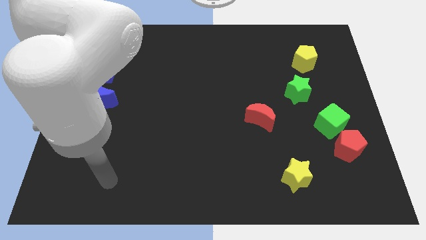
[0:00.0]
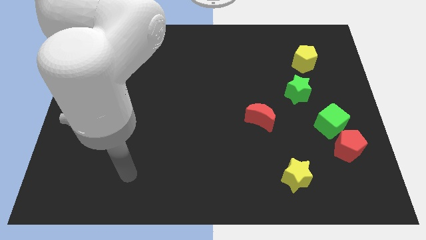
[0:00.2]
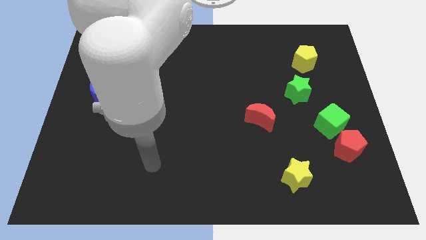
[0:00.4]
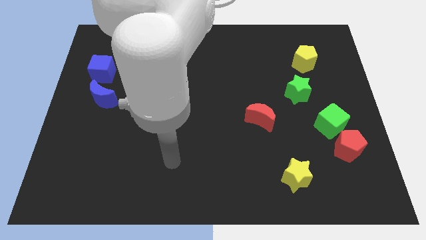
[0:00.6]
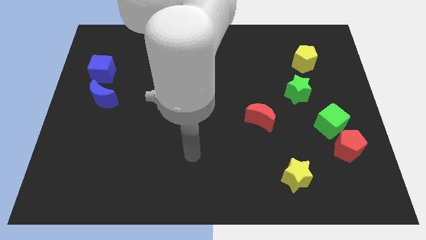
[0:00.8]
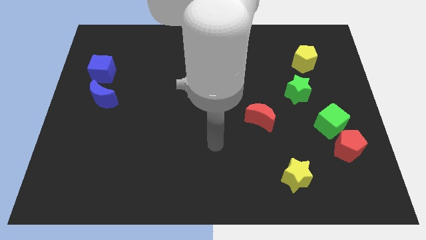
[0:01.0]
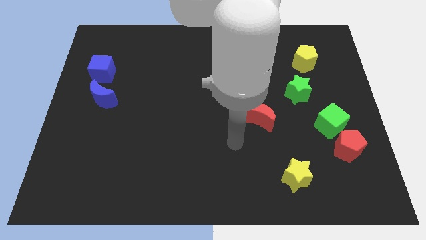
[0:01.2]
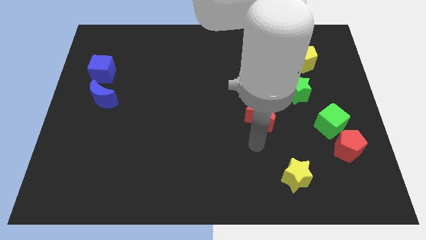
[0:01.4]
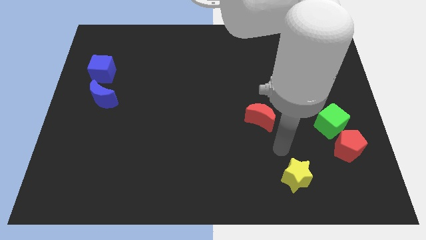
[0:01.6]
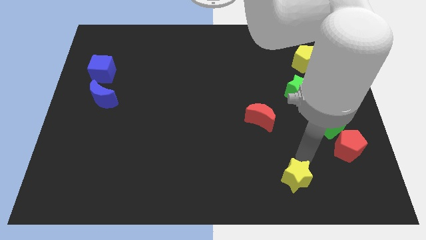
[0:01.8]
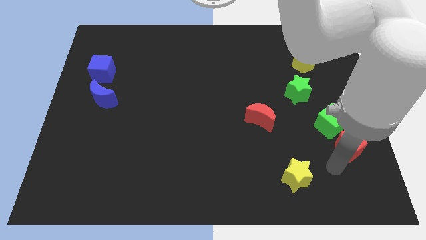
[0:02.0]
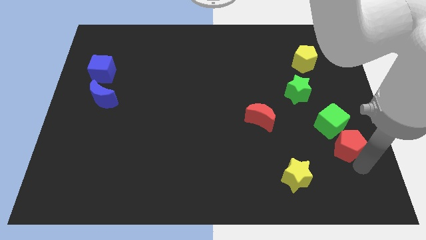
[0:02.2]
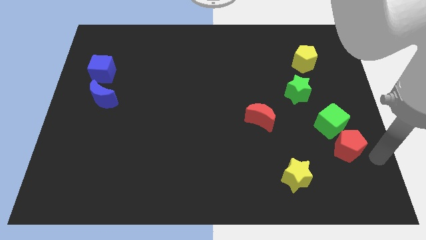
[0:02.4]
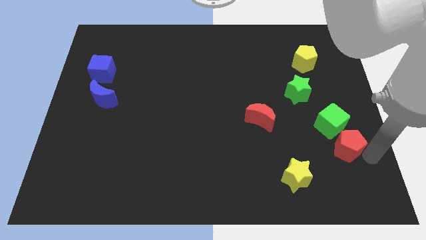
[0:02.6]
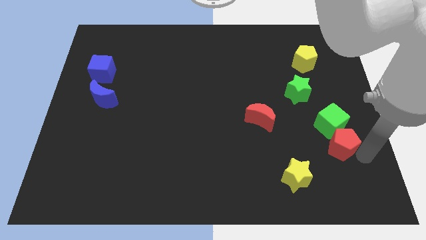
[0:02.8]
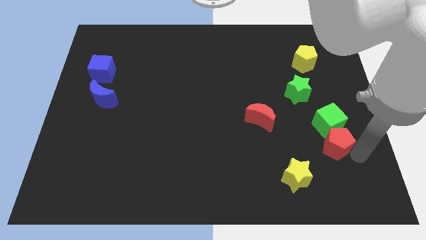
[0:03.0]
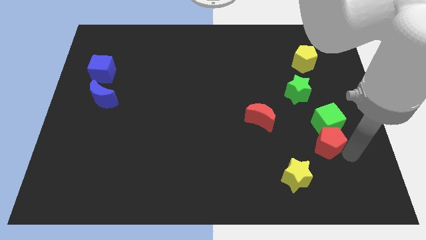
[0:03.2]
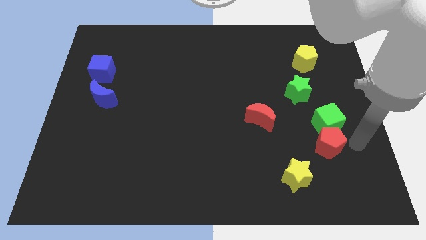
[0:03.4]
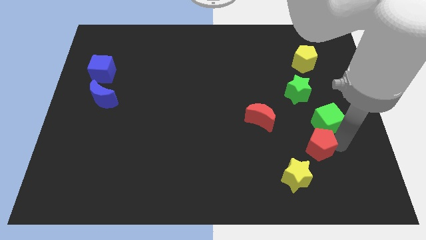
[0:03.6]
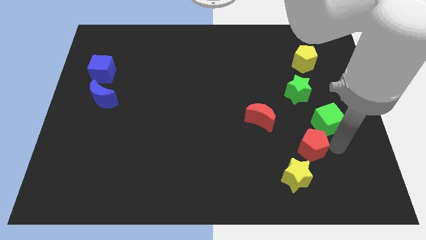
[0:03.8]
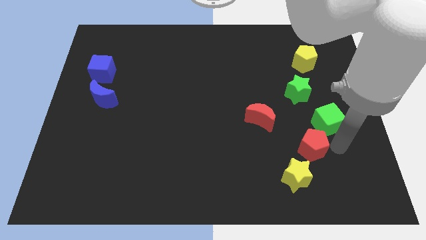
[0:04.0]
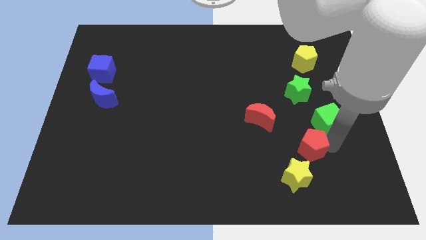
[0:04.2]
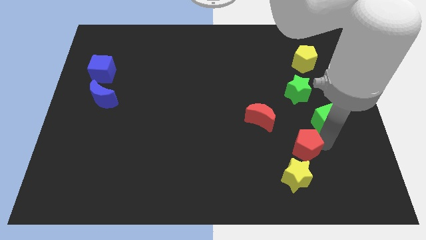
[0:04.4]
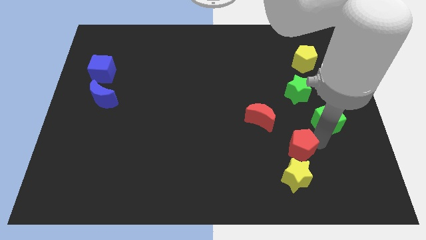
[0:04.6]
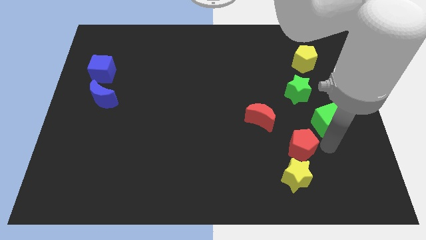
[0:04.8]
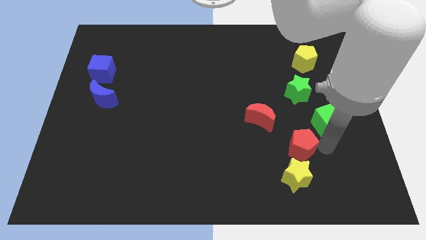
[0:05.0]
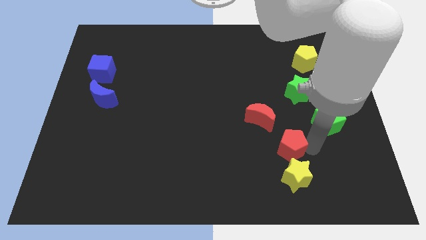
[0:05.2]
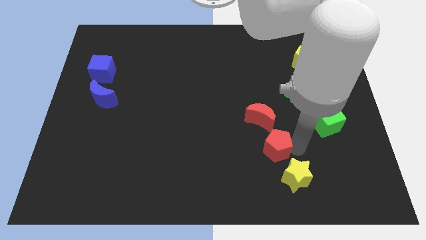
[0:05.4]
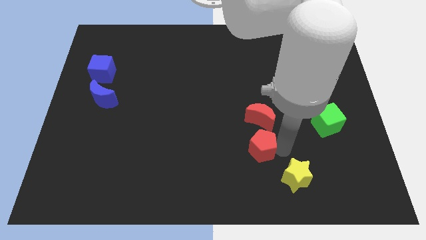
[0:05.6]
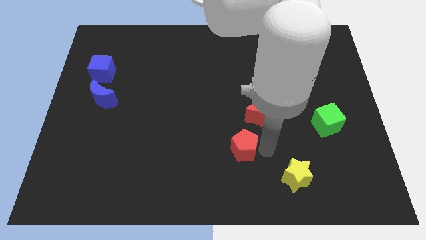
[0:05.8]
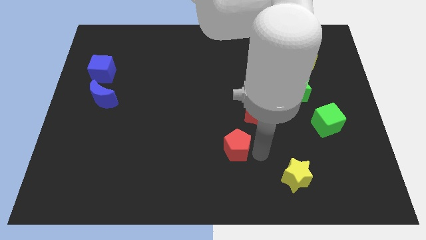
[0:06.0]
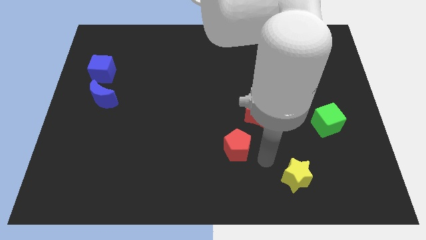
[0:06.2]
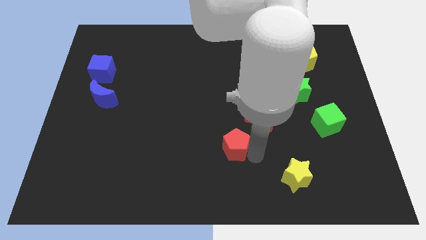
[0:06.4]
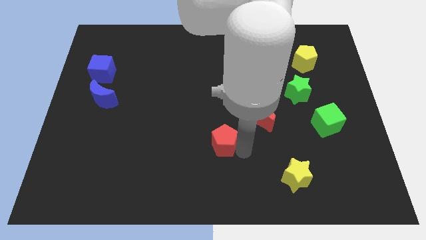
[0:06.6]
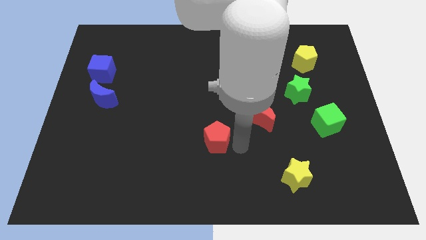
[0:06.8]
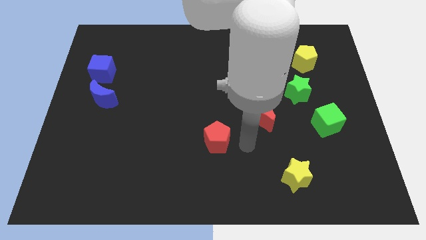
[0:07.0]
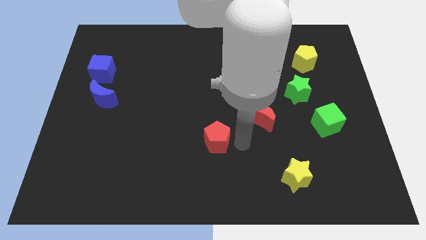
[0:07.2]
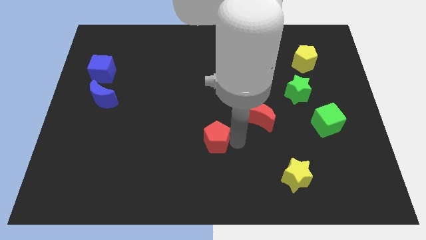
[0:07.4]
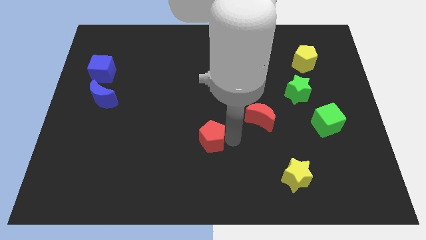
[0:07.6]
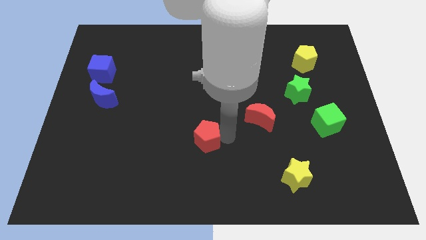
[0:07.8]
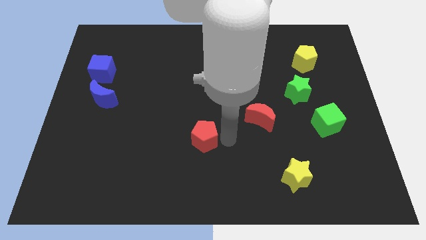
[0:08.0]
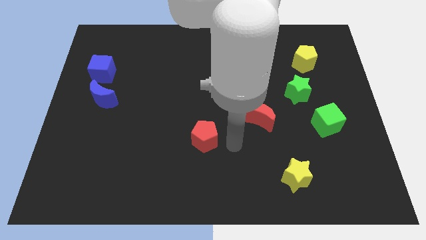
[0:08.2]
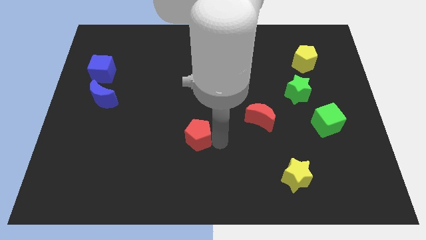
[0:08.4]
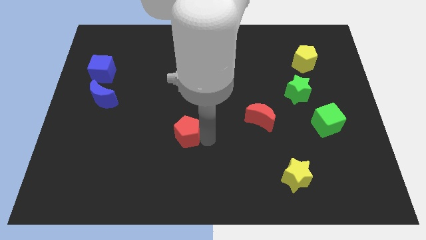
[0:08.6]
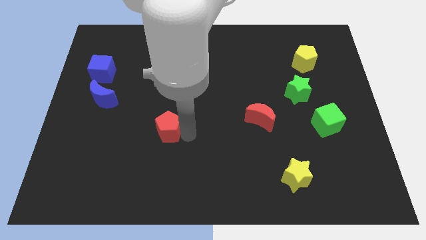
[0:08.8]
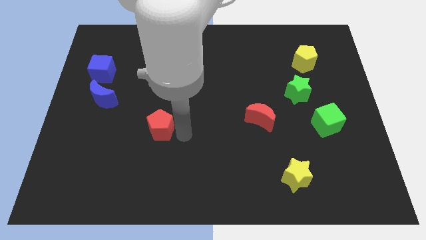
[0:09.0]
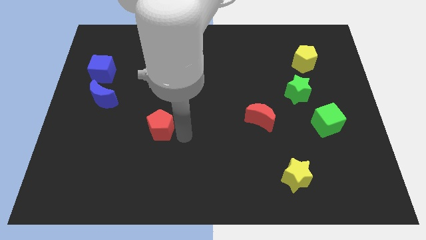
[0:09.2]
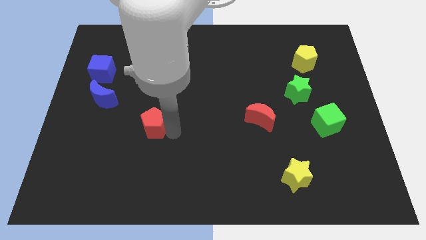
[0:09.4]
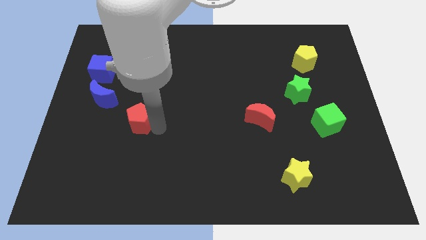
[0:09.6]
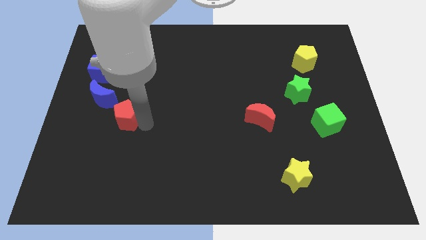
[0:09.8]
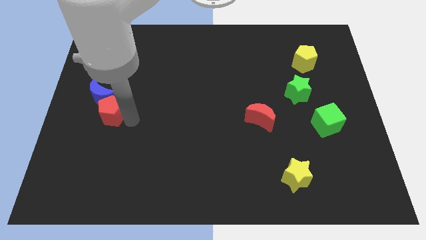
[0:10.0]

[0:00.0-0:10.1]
slide the red pentagon to the bottom side of the blue cube

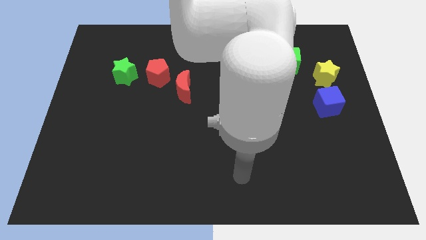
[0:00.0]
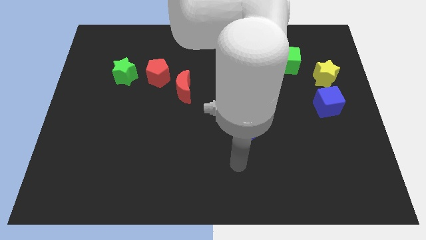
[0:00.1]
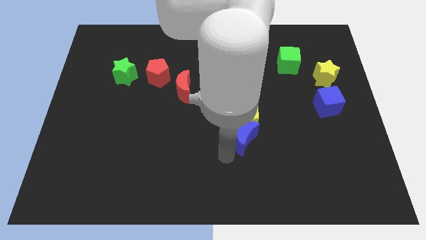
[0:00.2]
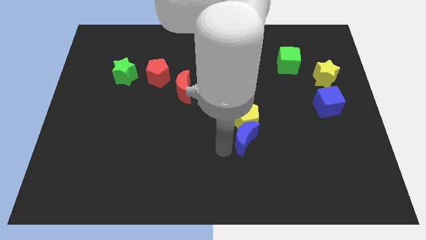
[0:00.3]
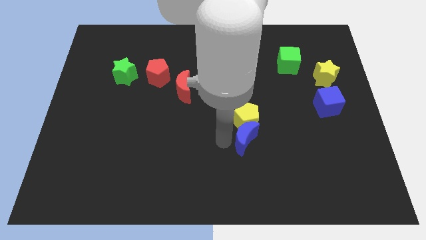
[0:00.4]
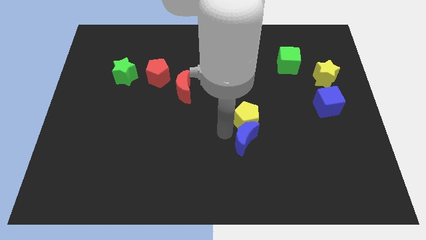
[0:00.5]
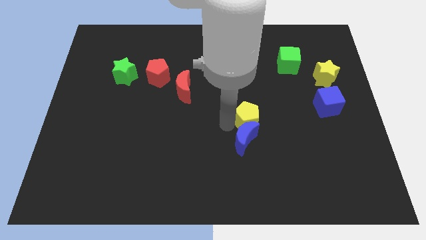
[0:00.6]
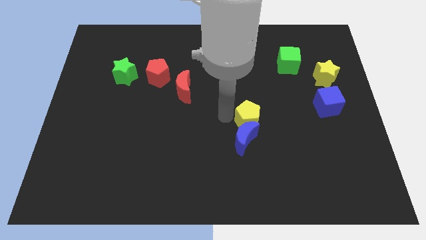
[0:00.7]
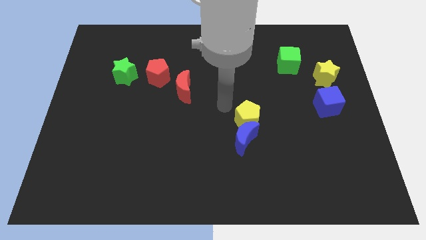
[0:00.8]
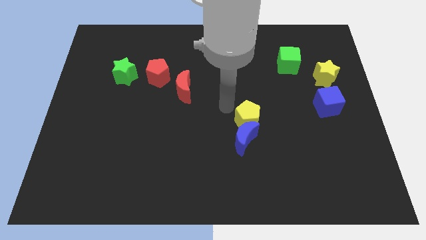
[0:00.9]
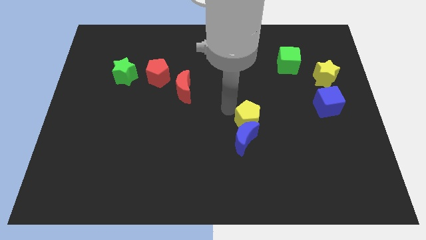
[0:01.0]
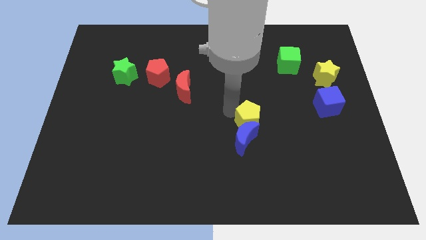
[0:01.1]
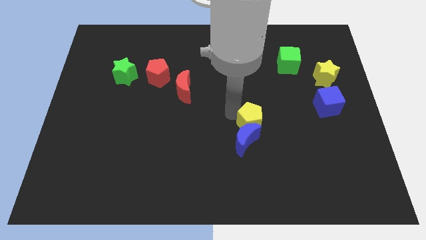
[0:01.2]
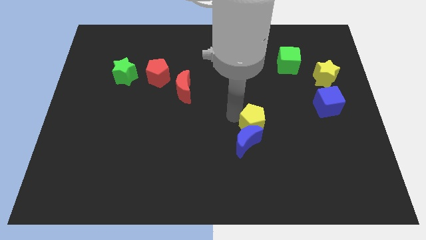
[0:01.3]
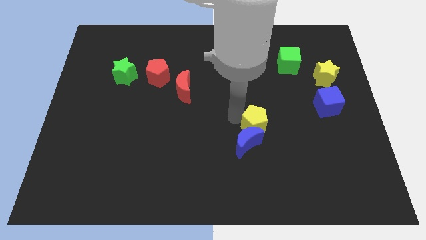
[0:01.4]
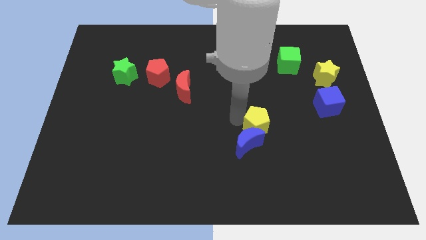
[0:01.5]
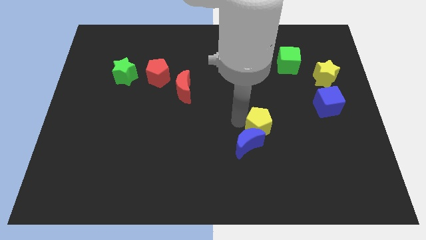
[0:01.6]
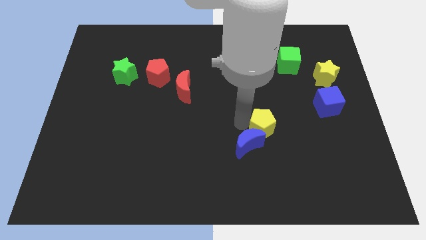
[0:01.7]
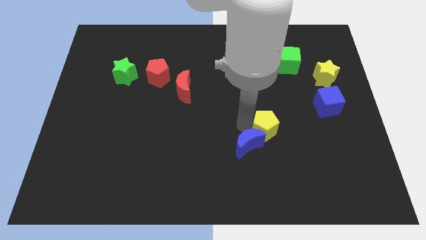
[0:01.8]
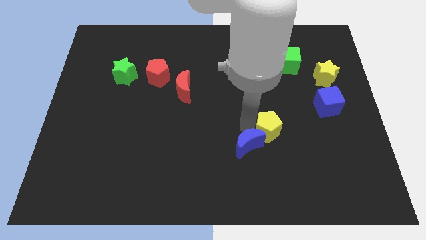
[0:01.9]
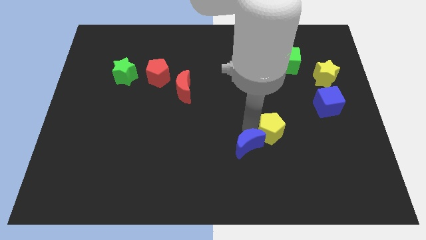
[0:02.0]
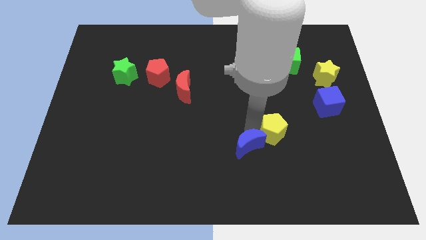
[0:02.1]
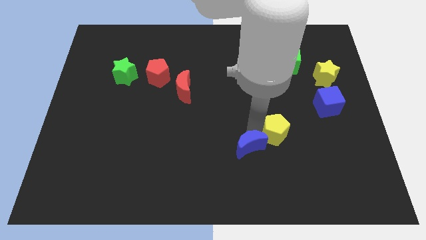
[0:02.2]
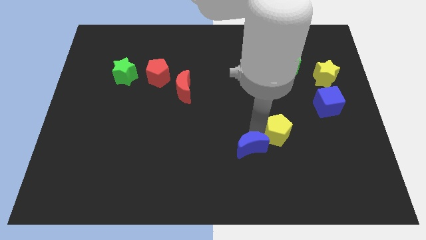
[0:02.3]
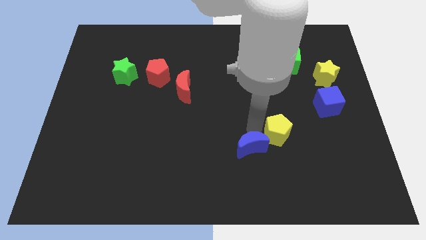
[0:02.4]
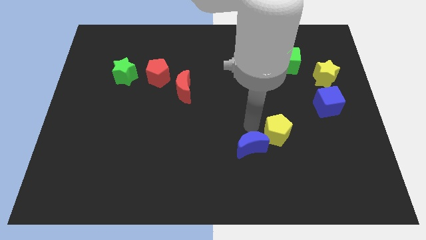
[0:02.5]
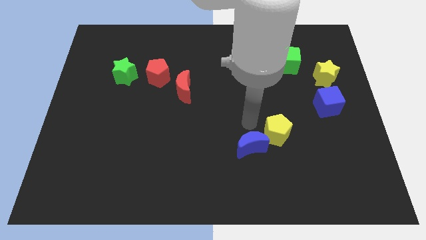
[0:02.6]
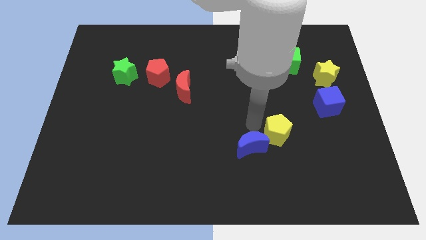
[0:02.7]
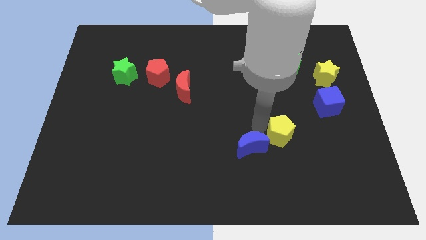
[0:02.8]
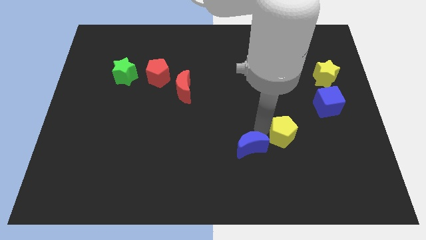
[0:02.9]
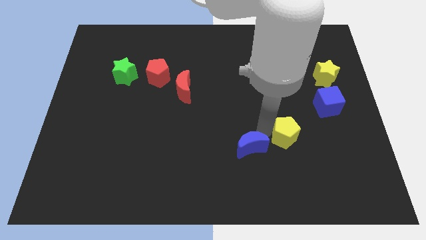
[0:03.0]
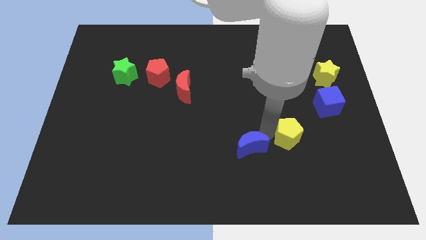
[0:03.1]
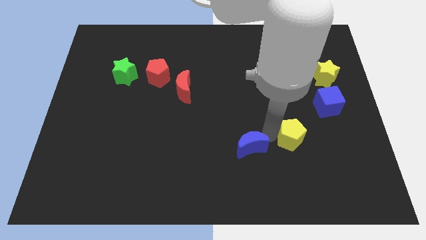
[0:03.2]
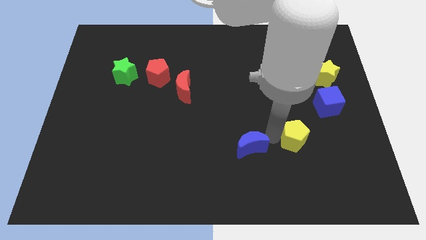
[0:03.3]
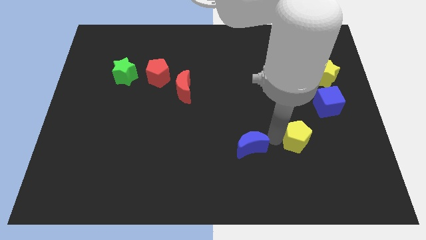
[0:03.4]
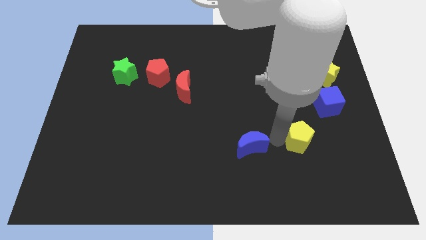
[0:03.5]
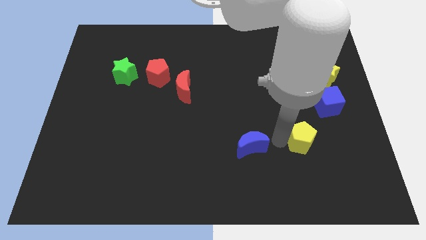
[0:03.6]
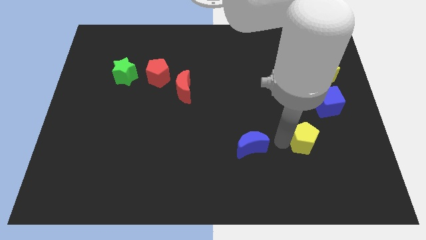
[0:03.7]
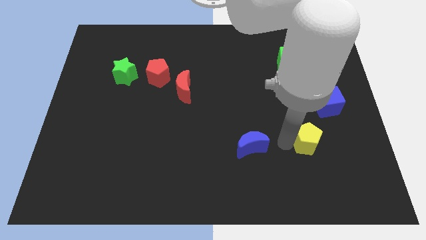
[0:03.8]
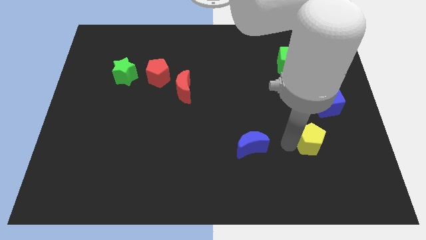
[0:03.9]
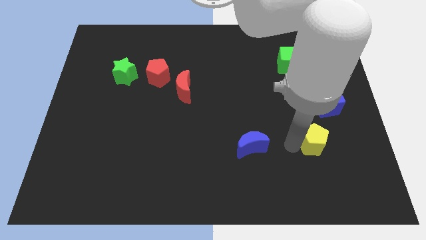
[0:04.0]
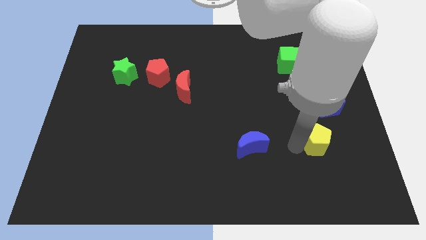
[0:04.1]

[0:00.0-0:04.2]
push the yellow pentagon to the bottom side of the blue cube
